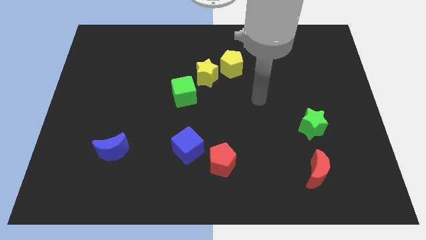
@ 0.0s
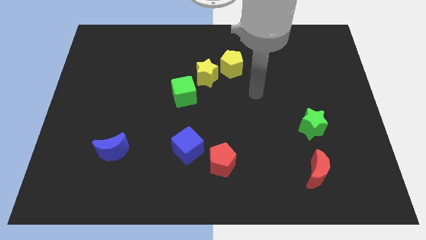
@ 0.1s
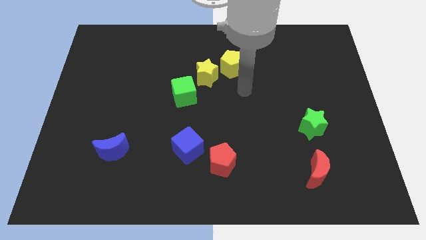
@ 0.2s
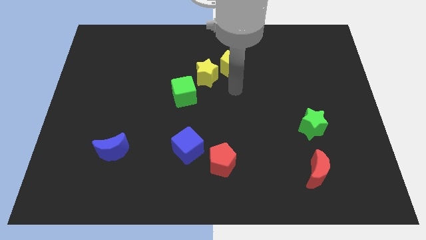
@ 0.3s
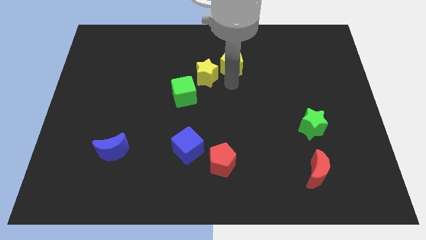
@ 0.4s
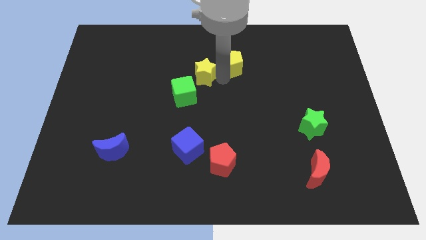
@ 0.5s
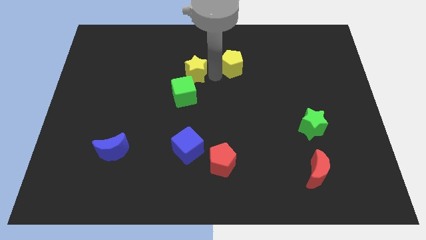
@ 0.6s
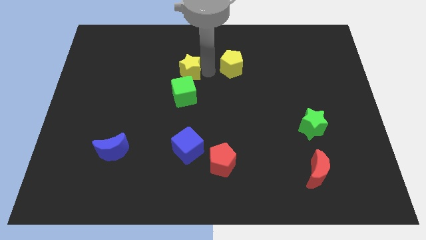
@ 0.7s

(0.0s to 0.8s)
move the yellow pentagon away from the yellow star

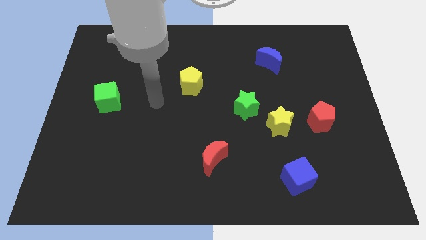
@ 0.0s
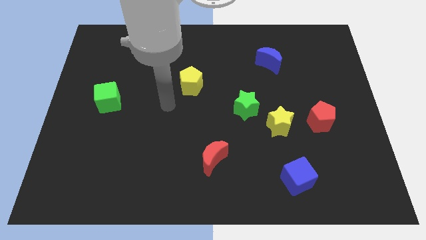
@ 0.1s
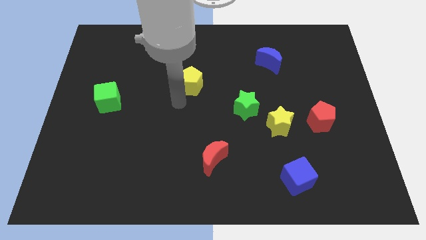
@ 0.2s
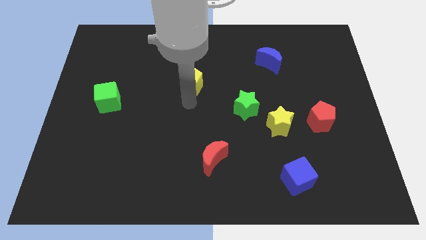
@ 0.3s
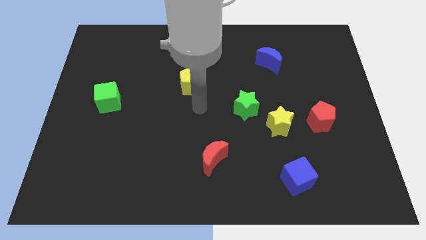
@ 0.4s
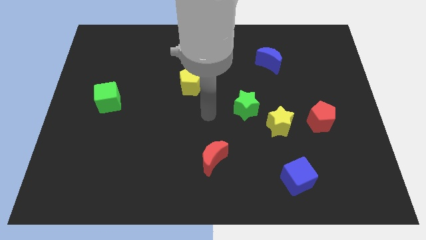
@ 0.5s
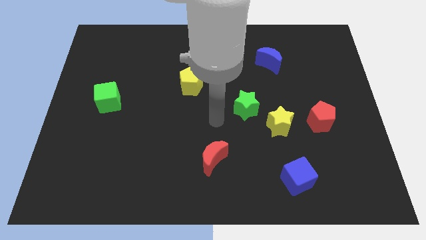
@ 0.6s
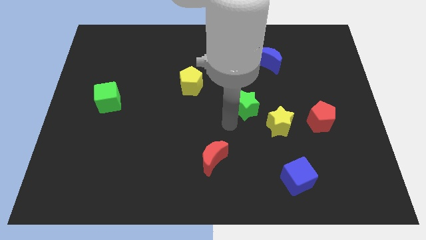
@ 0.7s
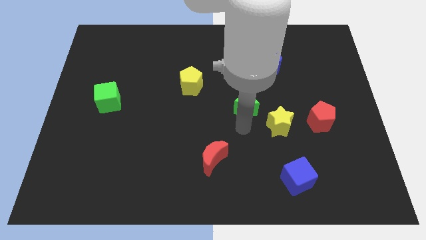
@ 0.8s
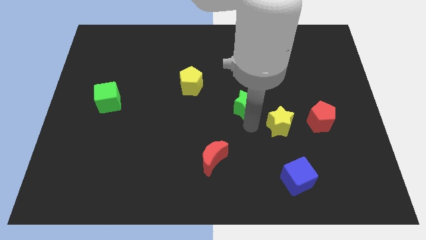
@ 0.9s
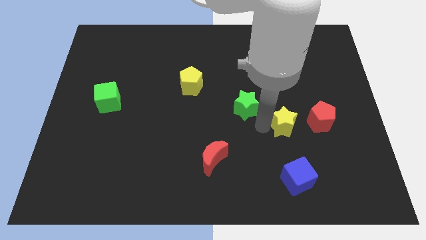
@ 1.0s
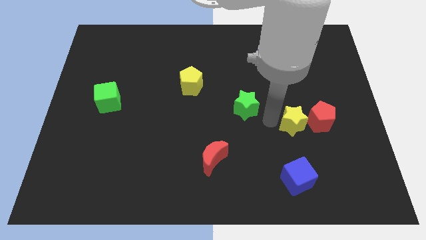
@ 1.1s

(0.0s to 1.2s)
move the green star away from the yellow star

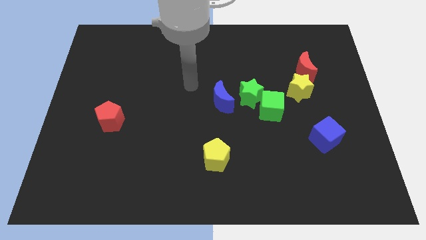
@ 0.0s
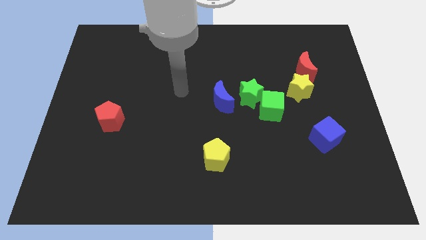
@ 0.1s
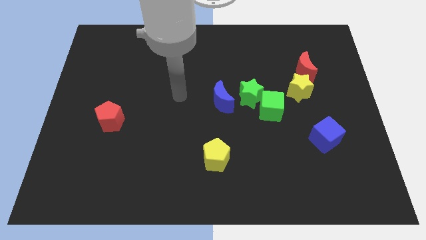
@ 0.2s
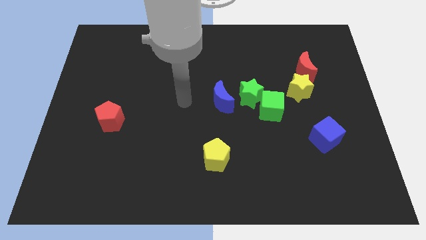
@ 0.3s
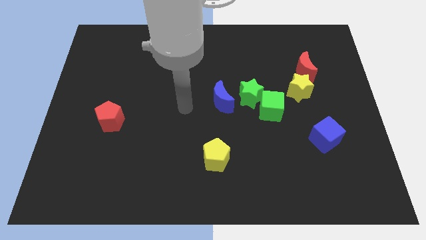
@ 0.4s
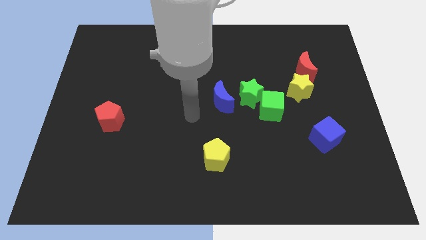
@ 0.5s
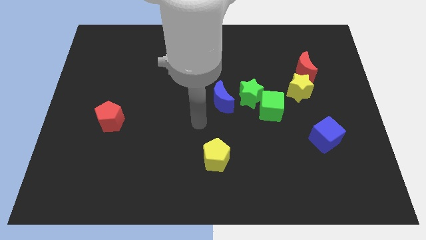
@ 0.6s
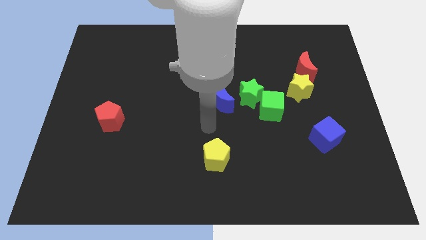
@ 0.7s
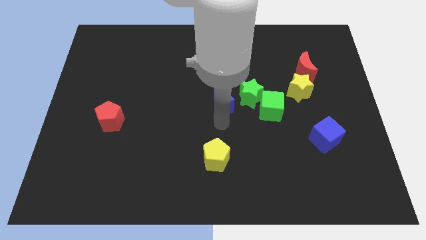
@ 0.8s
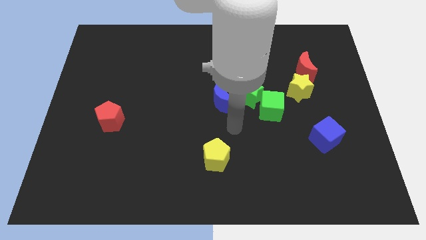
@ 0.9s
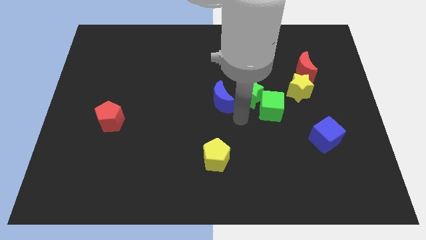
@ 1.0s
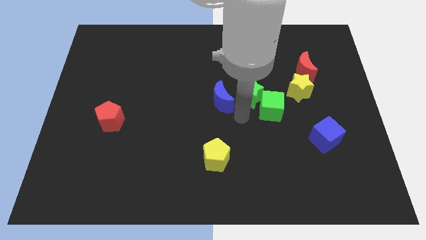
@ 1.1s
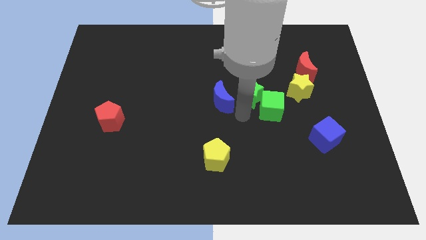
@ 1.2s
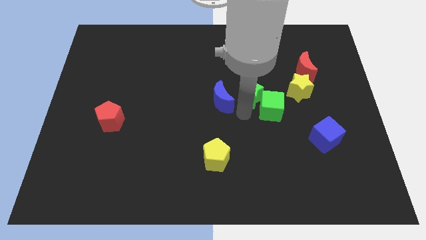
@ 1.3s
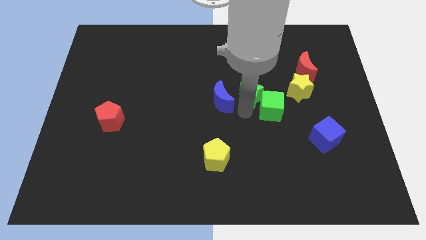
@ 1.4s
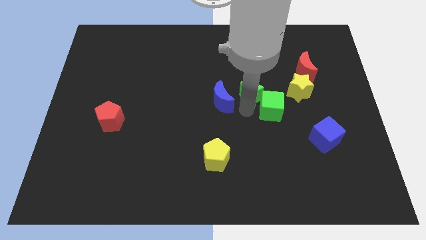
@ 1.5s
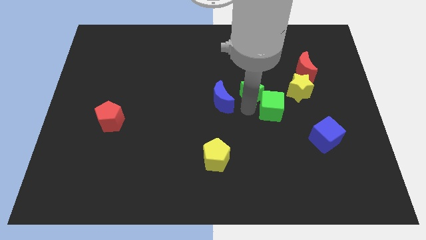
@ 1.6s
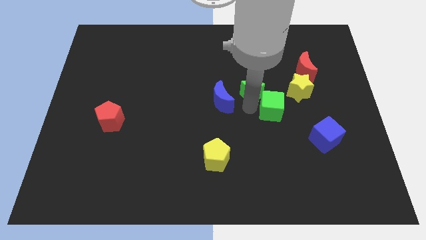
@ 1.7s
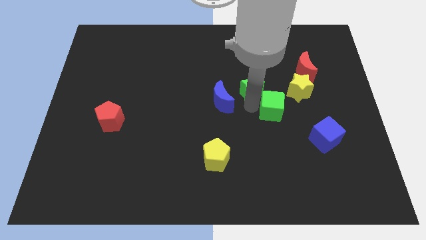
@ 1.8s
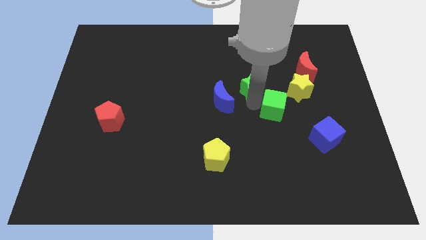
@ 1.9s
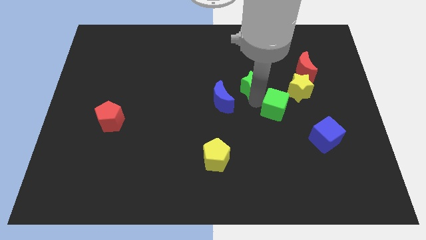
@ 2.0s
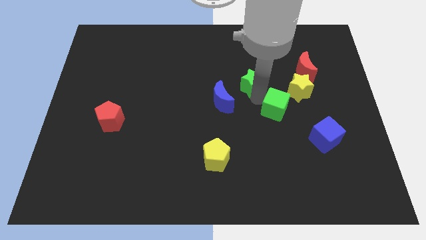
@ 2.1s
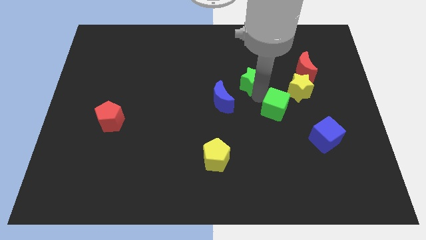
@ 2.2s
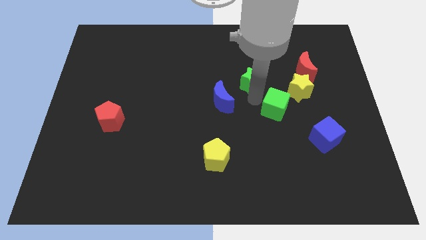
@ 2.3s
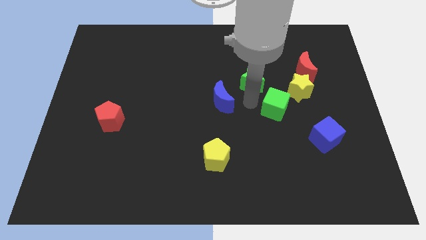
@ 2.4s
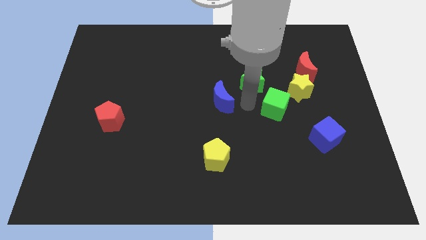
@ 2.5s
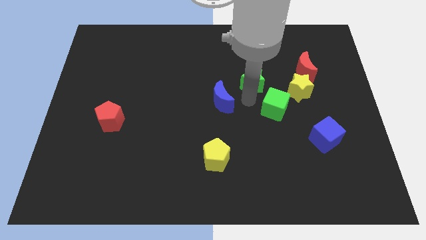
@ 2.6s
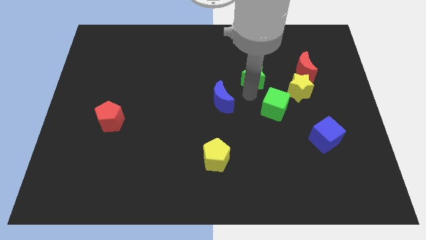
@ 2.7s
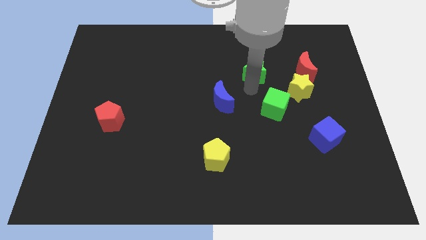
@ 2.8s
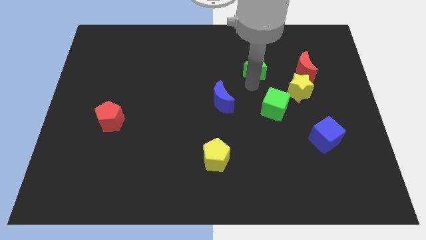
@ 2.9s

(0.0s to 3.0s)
separate the green star from the green cube and blue moon

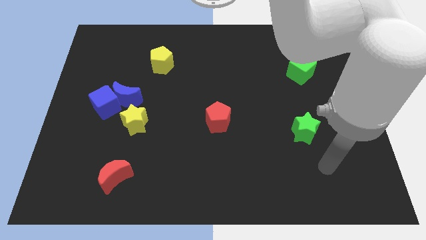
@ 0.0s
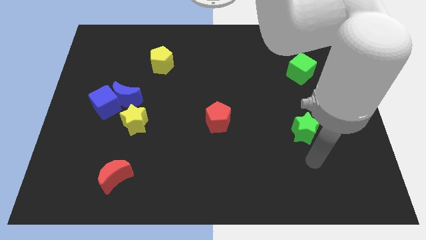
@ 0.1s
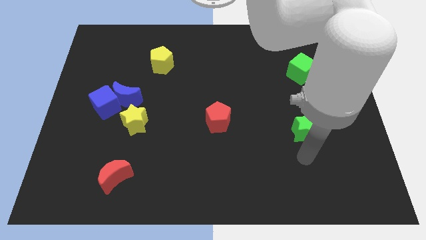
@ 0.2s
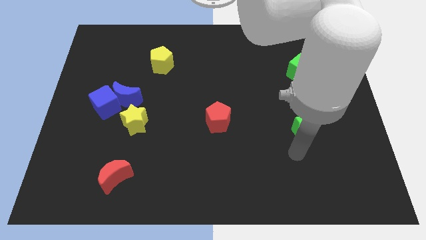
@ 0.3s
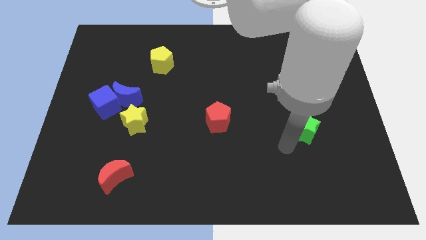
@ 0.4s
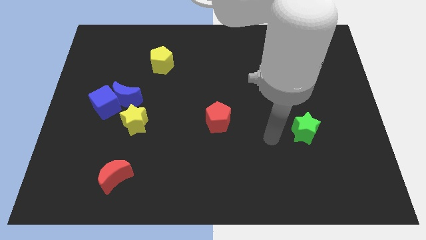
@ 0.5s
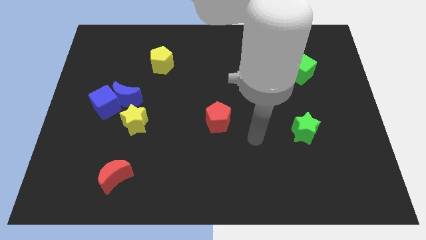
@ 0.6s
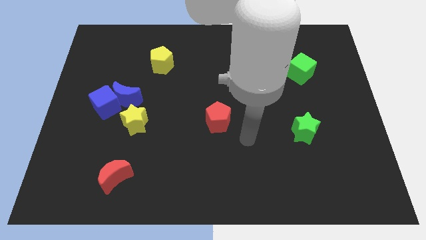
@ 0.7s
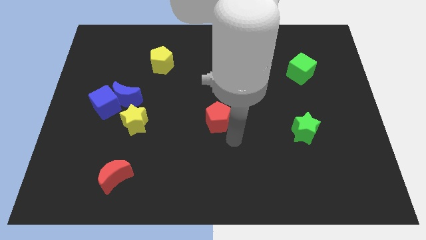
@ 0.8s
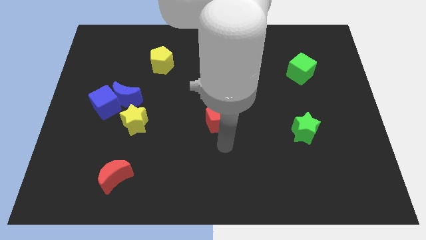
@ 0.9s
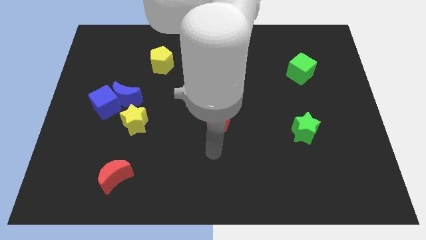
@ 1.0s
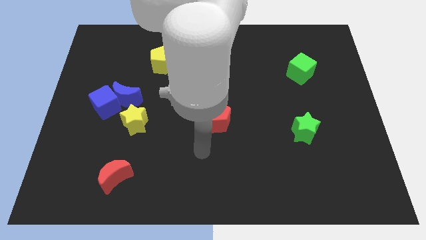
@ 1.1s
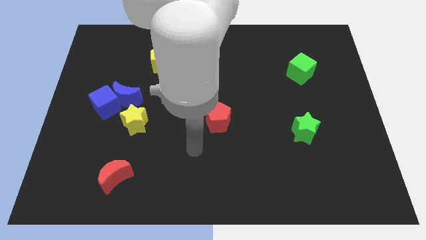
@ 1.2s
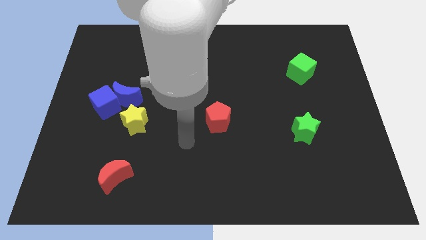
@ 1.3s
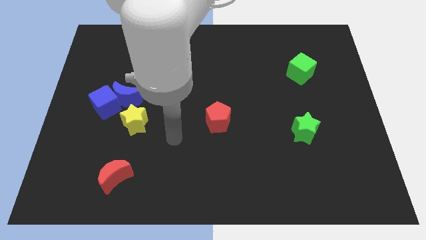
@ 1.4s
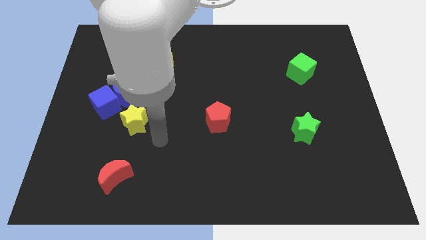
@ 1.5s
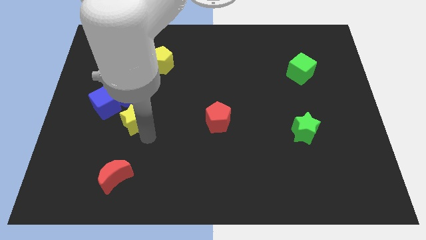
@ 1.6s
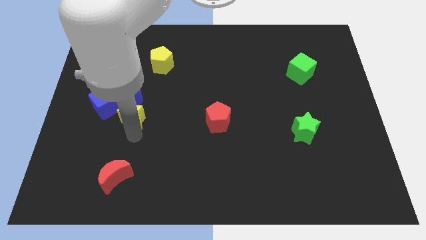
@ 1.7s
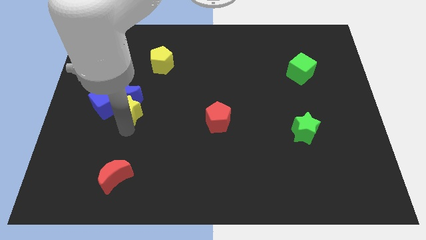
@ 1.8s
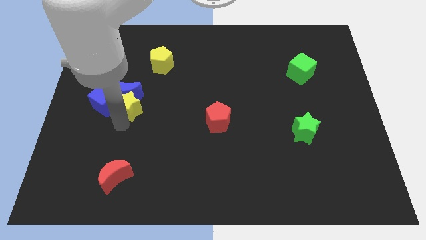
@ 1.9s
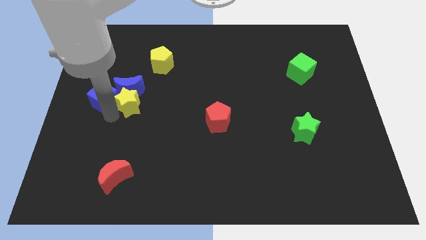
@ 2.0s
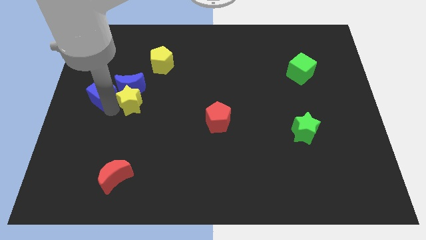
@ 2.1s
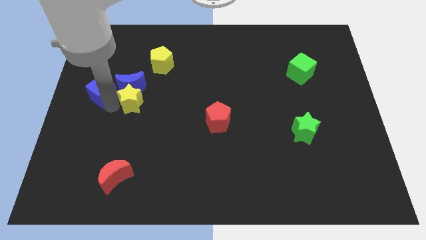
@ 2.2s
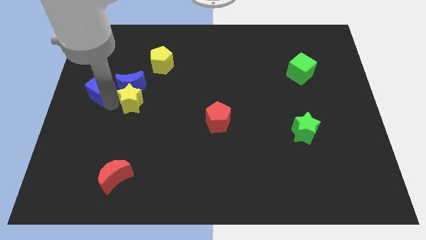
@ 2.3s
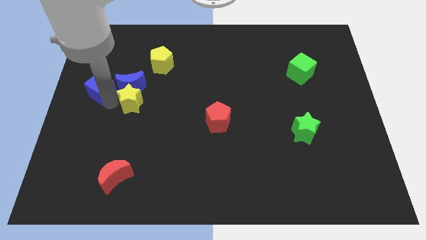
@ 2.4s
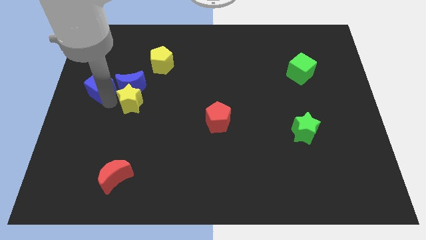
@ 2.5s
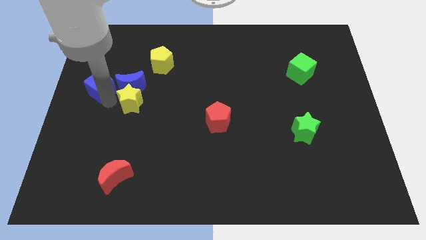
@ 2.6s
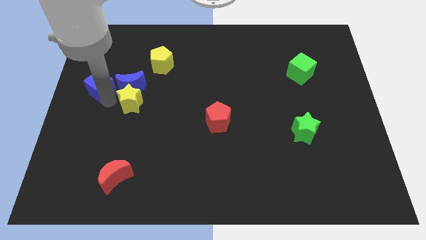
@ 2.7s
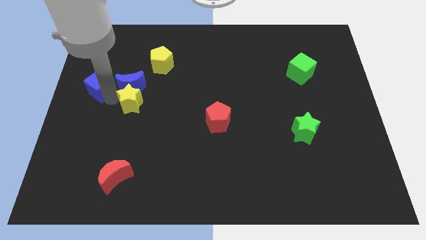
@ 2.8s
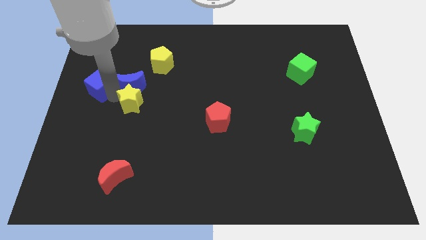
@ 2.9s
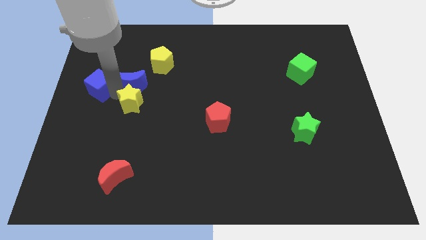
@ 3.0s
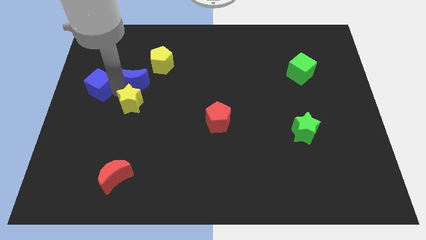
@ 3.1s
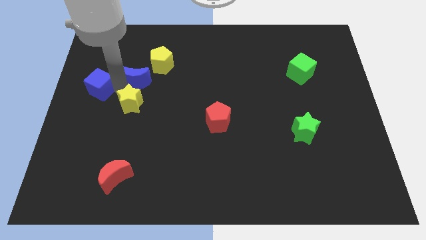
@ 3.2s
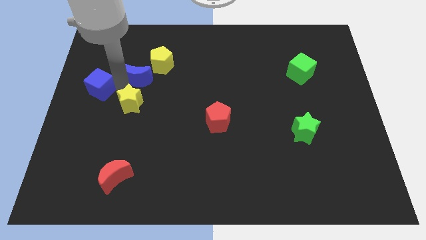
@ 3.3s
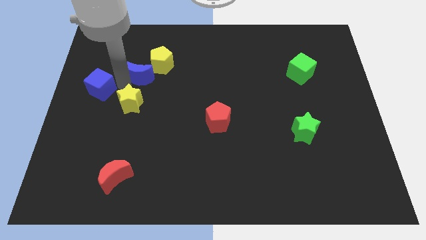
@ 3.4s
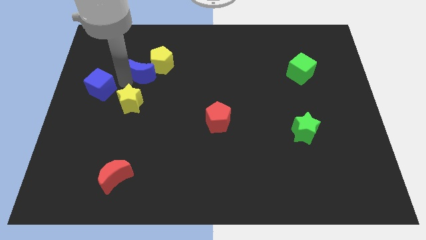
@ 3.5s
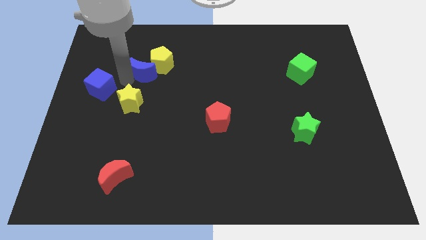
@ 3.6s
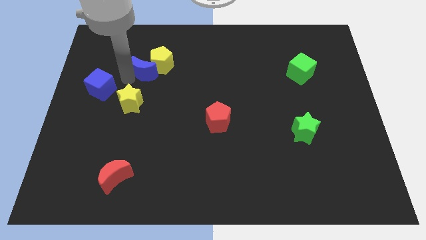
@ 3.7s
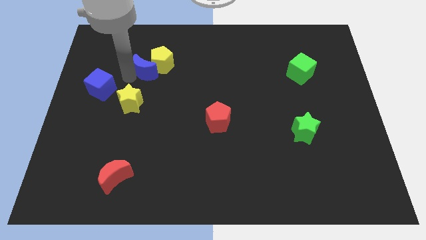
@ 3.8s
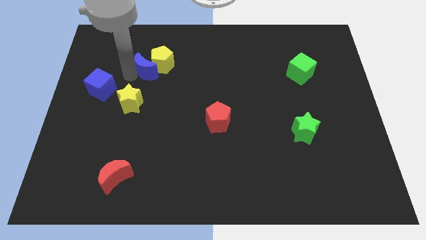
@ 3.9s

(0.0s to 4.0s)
separate the blue moon from the blue cube and yellow star

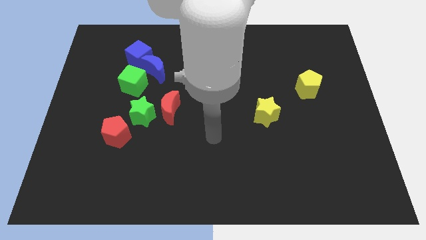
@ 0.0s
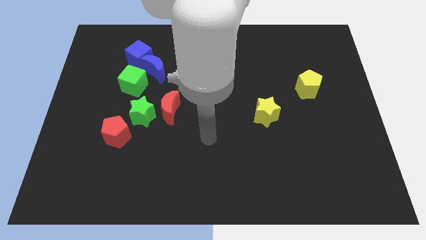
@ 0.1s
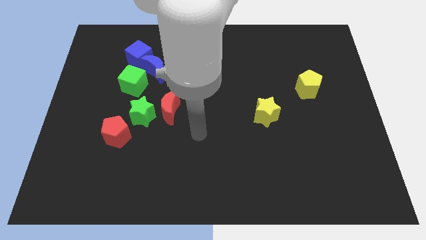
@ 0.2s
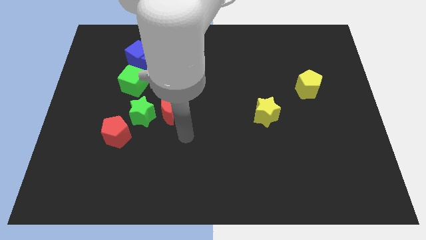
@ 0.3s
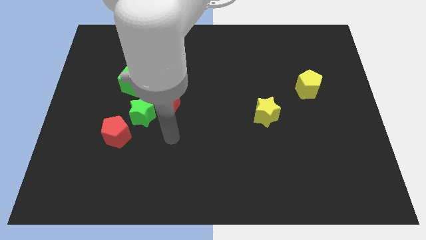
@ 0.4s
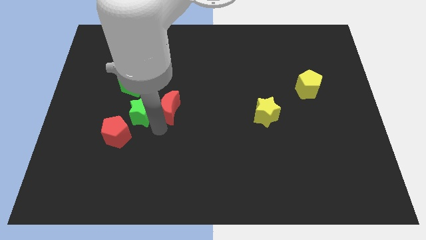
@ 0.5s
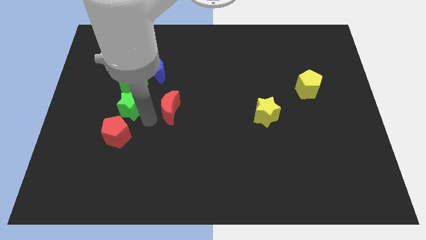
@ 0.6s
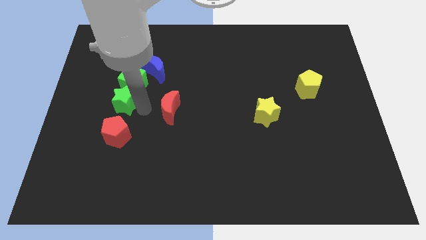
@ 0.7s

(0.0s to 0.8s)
separate the red moon from the green star
